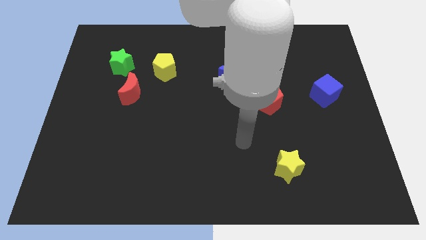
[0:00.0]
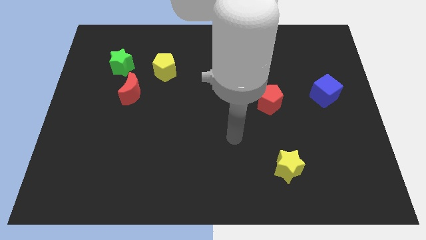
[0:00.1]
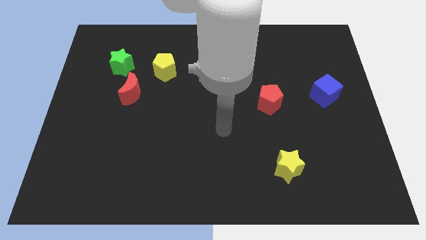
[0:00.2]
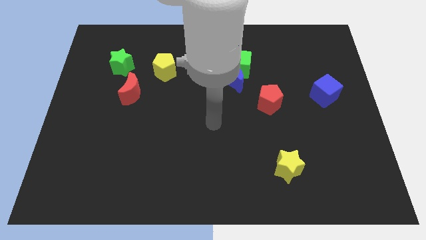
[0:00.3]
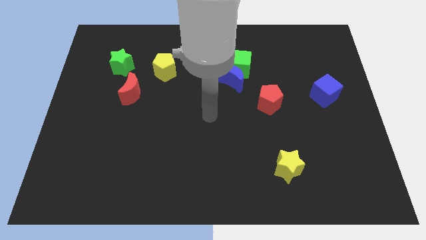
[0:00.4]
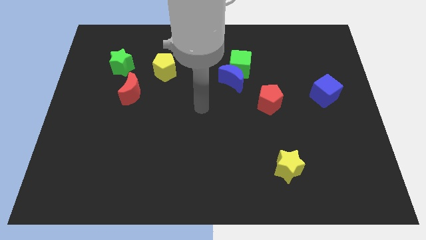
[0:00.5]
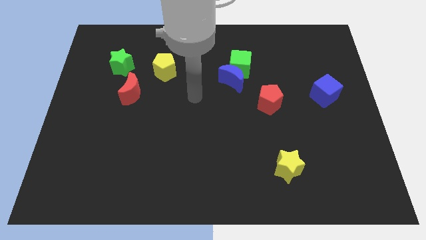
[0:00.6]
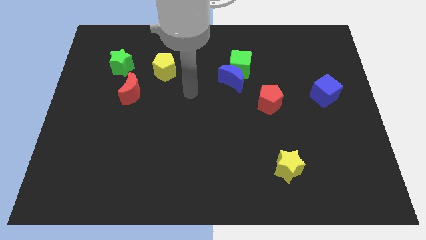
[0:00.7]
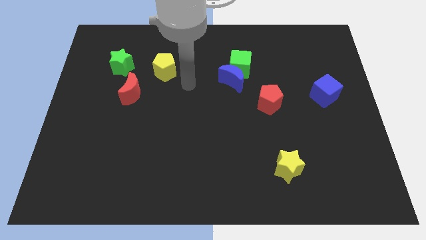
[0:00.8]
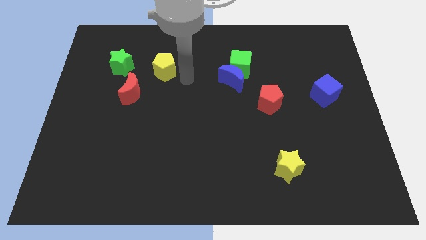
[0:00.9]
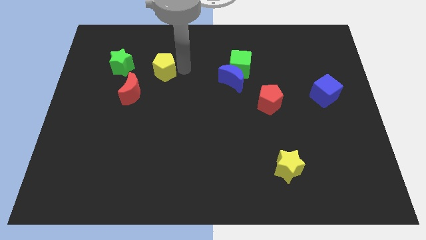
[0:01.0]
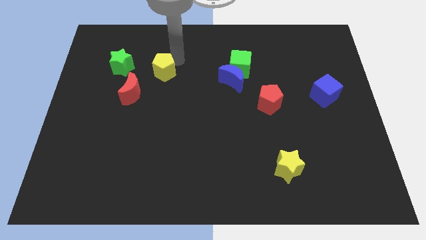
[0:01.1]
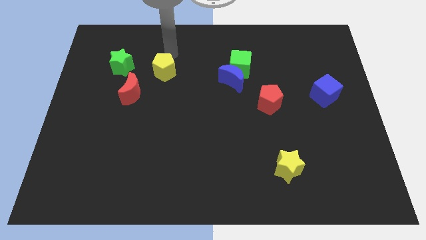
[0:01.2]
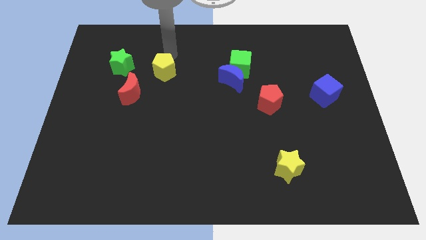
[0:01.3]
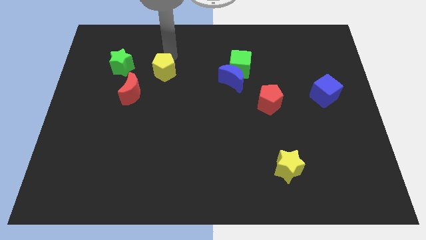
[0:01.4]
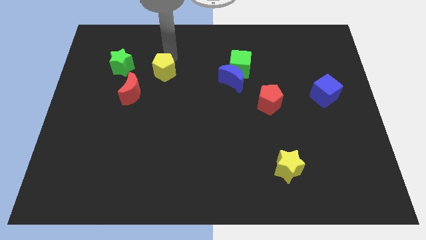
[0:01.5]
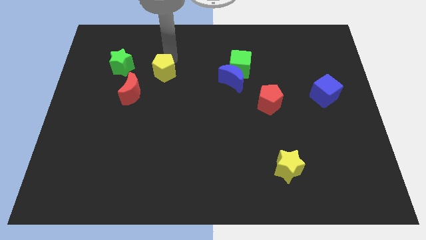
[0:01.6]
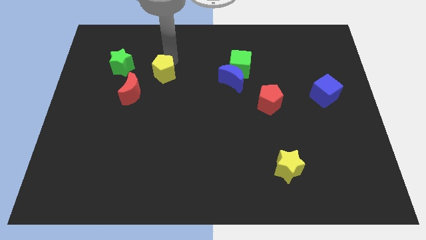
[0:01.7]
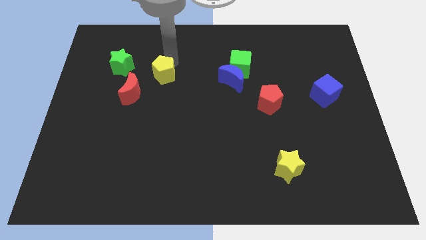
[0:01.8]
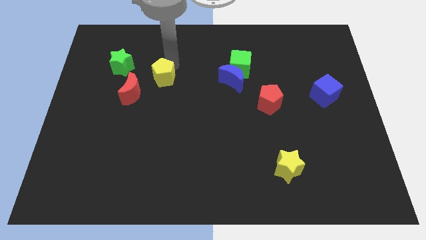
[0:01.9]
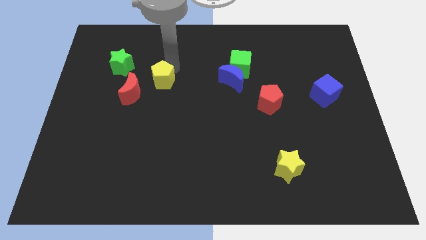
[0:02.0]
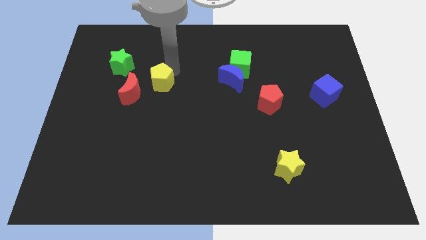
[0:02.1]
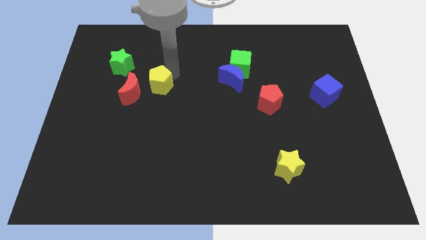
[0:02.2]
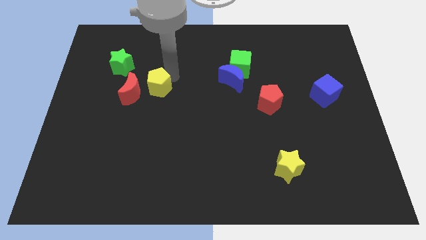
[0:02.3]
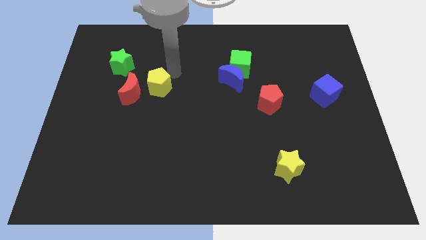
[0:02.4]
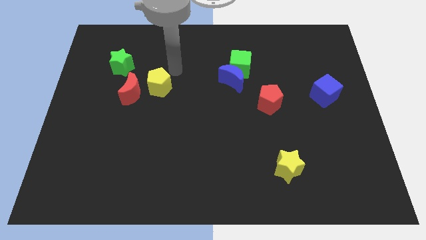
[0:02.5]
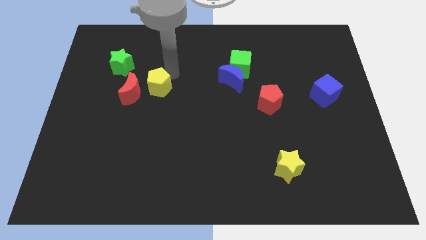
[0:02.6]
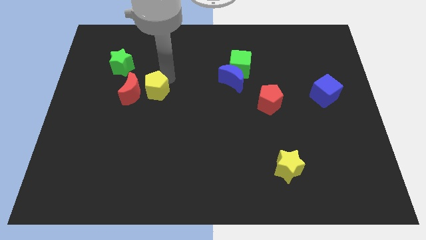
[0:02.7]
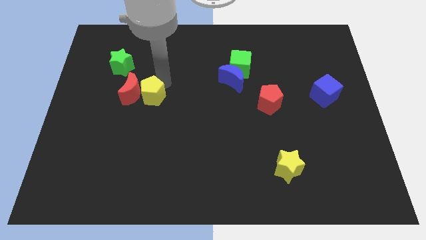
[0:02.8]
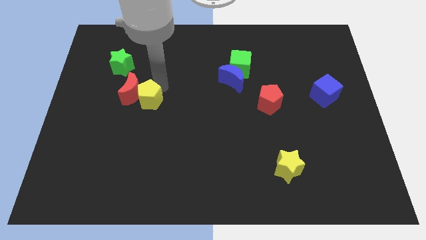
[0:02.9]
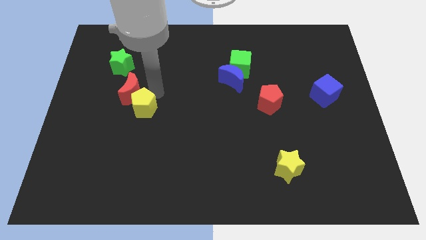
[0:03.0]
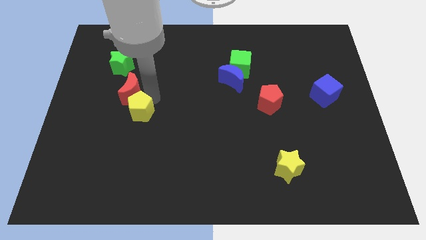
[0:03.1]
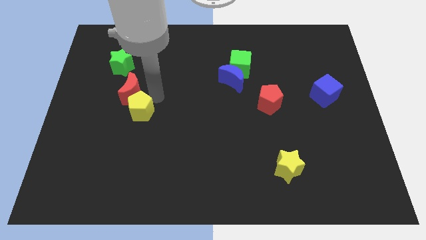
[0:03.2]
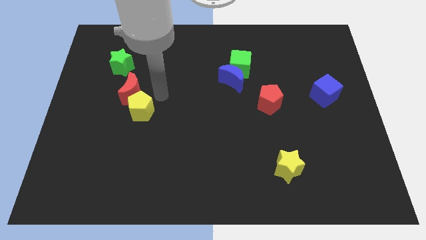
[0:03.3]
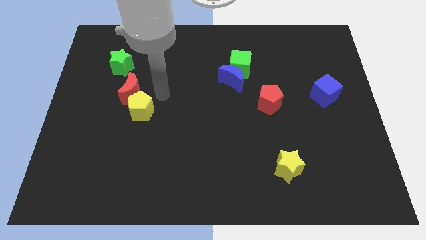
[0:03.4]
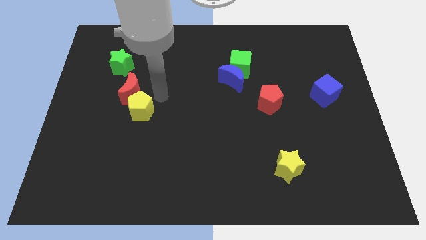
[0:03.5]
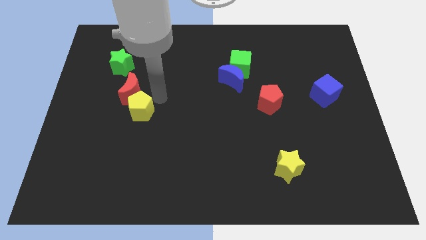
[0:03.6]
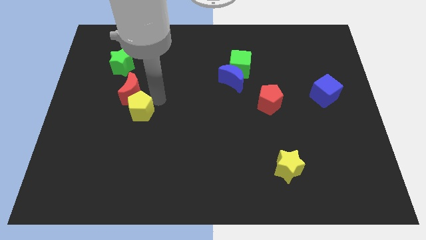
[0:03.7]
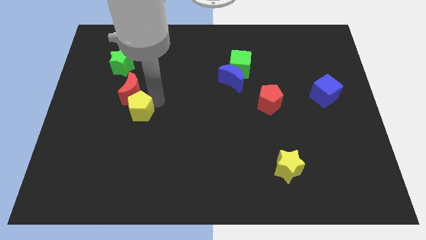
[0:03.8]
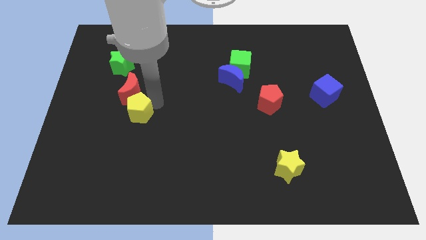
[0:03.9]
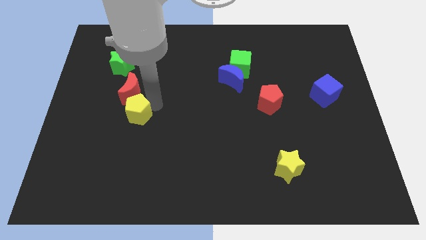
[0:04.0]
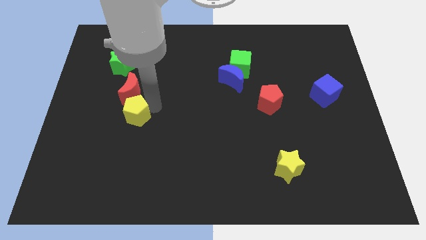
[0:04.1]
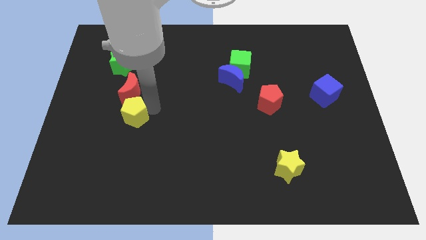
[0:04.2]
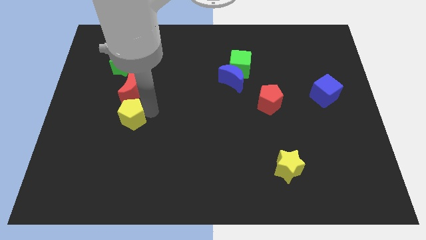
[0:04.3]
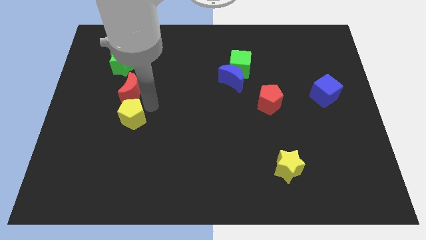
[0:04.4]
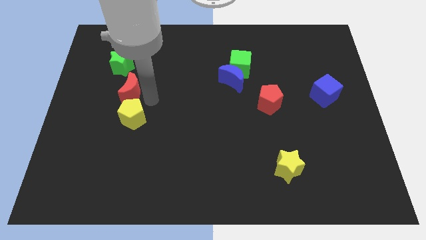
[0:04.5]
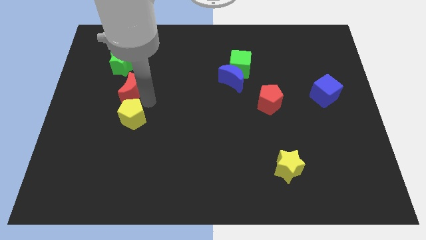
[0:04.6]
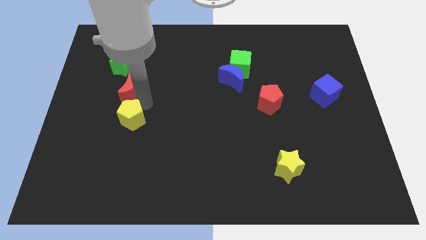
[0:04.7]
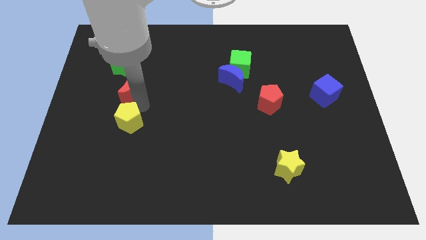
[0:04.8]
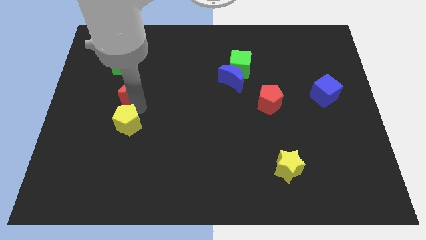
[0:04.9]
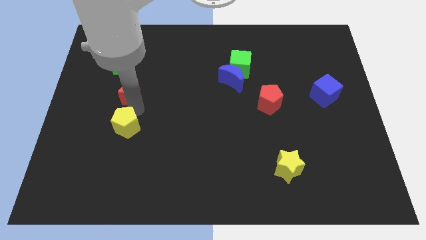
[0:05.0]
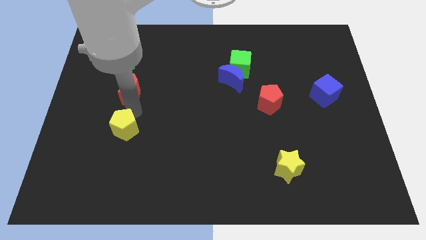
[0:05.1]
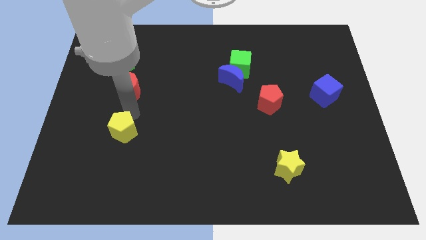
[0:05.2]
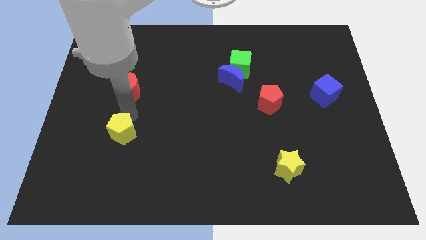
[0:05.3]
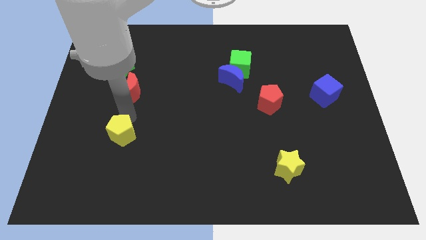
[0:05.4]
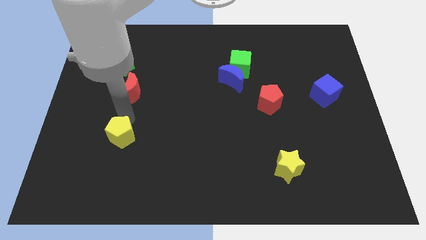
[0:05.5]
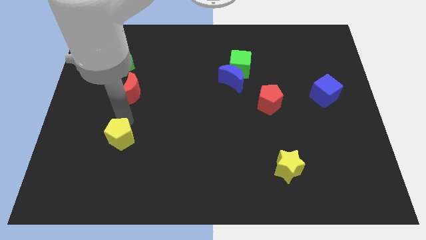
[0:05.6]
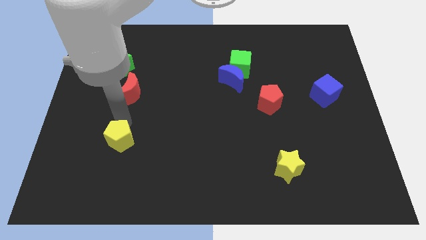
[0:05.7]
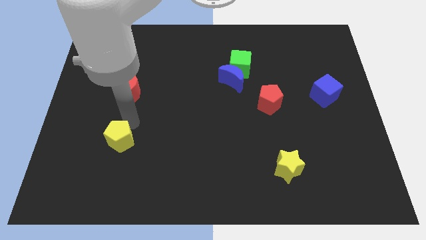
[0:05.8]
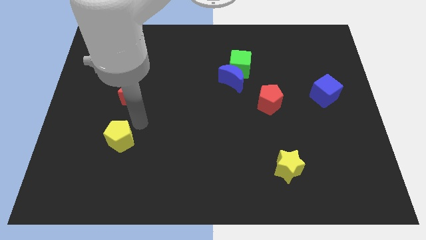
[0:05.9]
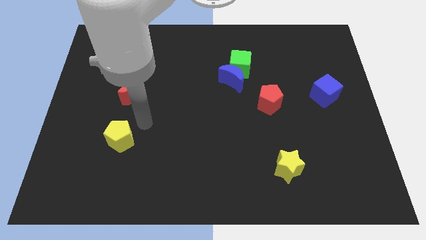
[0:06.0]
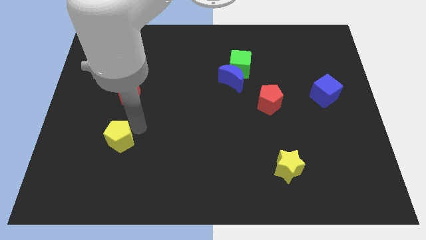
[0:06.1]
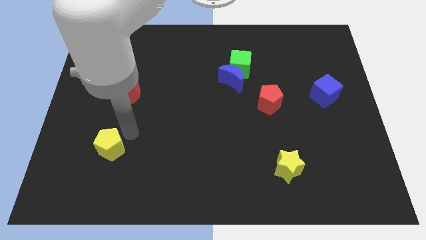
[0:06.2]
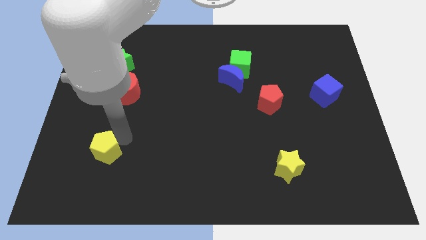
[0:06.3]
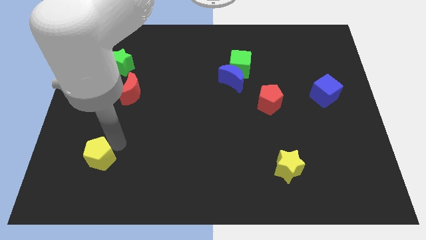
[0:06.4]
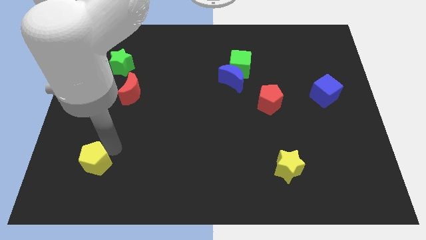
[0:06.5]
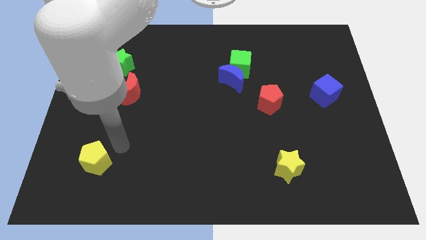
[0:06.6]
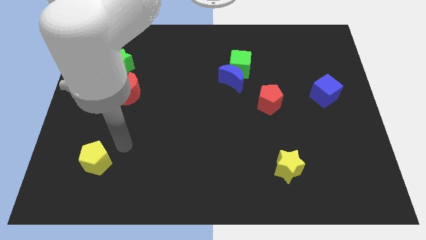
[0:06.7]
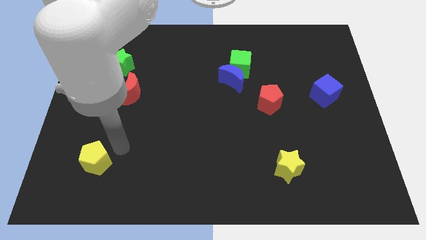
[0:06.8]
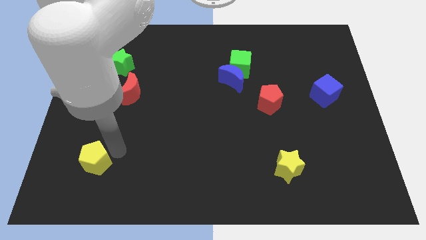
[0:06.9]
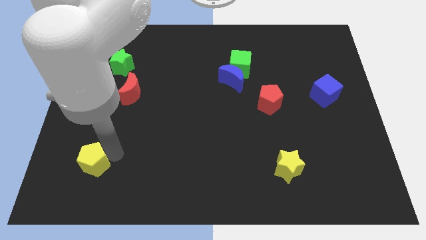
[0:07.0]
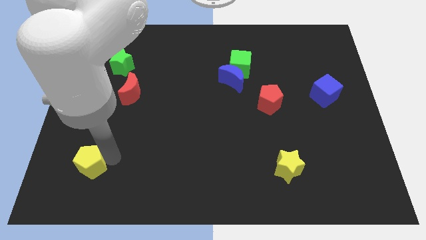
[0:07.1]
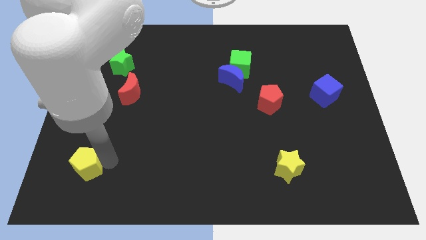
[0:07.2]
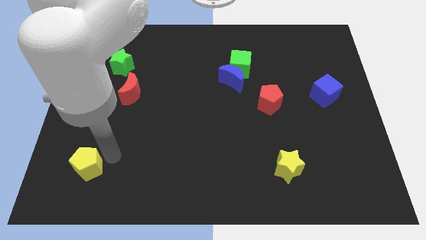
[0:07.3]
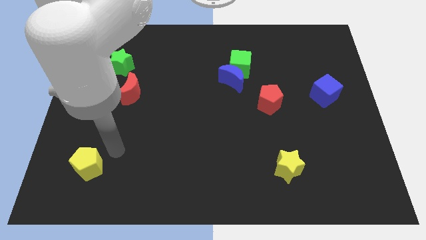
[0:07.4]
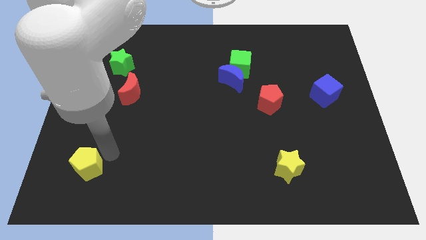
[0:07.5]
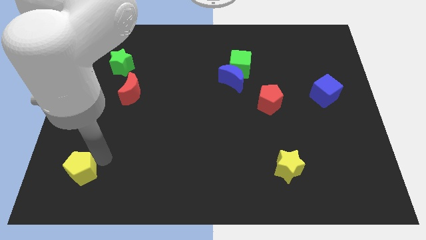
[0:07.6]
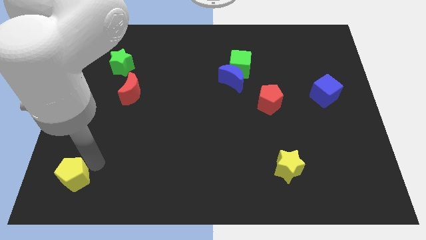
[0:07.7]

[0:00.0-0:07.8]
move the yellow pentagon to the lower left corner
